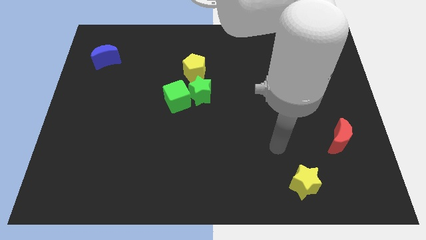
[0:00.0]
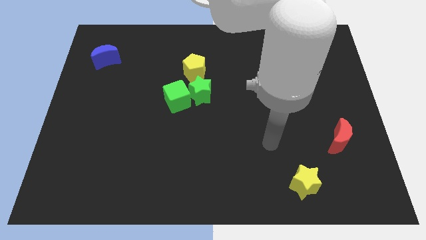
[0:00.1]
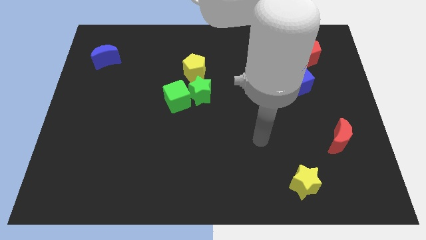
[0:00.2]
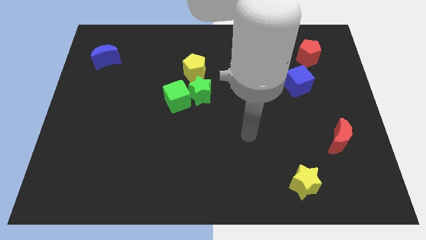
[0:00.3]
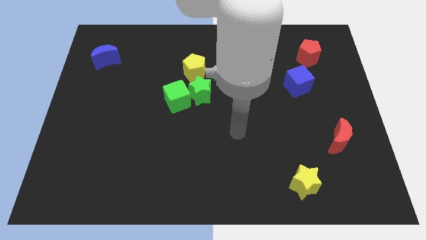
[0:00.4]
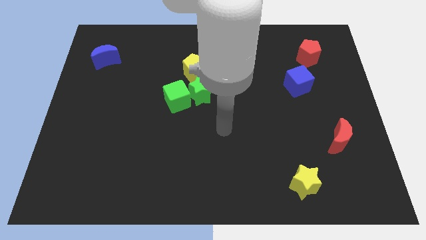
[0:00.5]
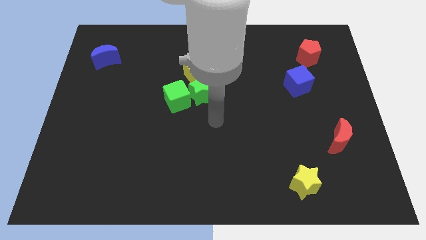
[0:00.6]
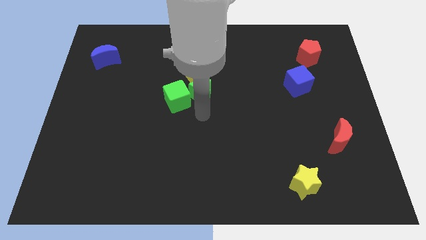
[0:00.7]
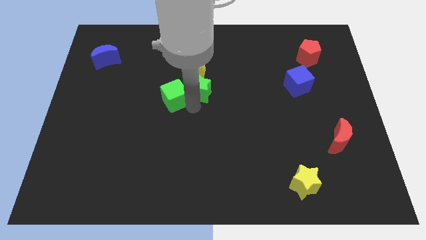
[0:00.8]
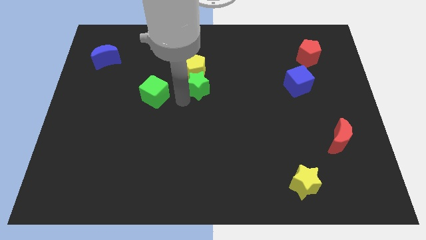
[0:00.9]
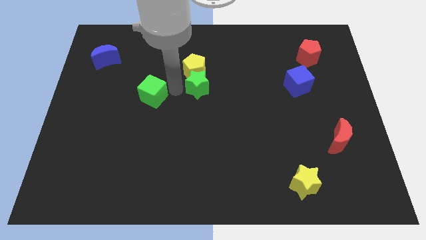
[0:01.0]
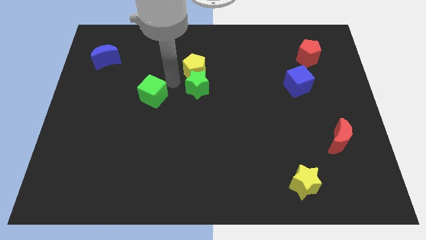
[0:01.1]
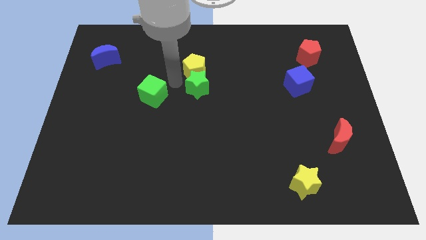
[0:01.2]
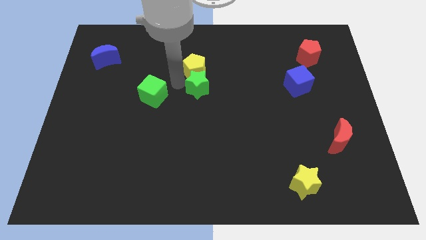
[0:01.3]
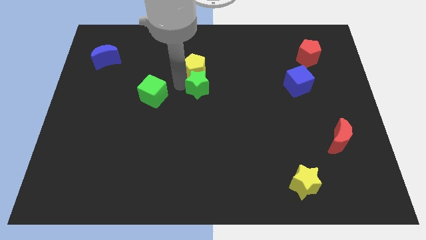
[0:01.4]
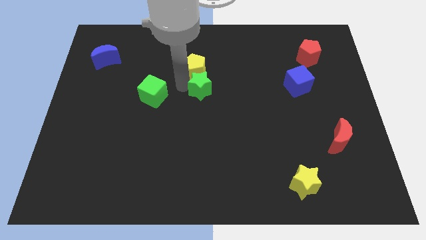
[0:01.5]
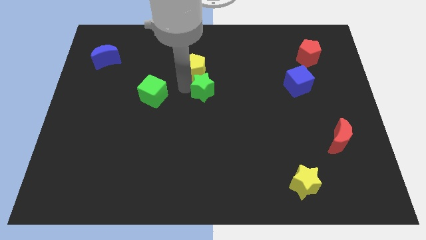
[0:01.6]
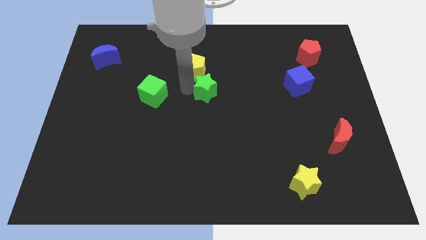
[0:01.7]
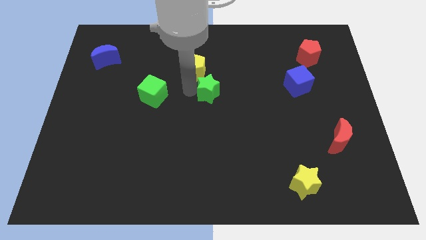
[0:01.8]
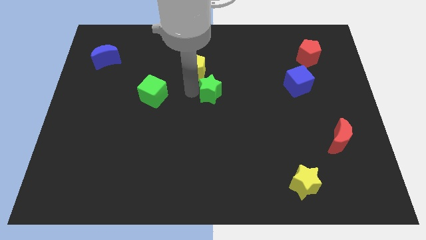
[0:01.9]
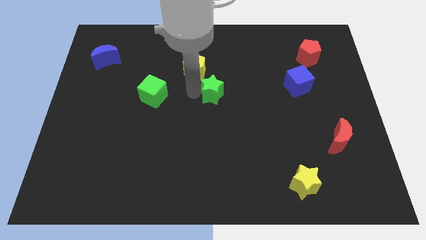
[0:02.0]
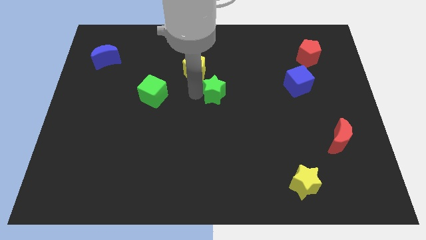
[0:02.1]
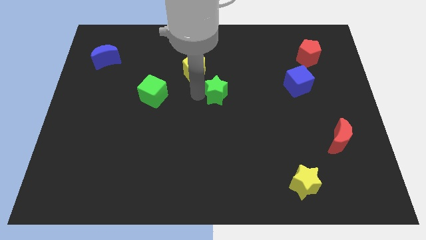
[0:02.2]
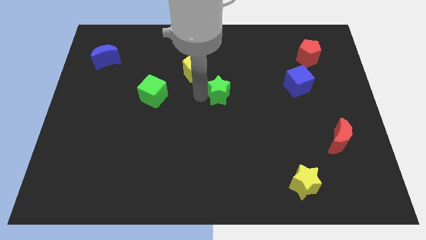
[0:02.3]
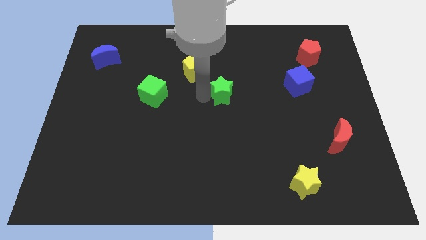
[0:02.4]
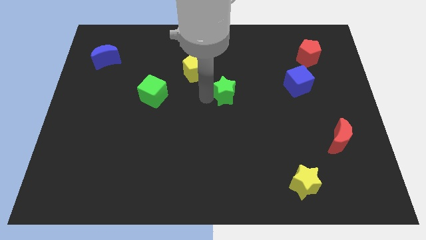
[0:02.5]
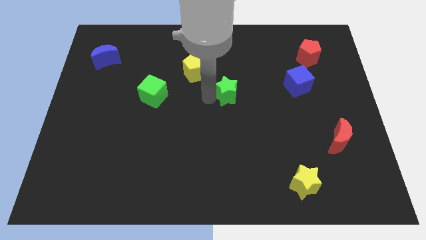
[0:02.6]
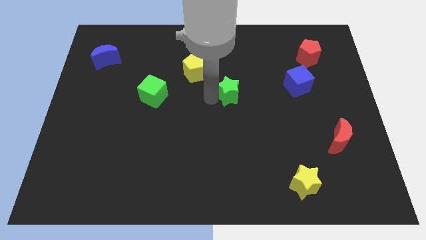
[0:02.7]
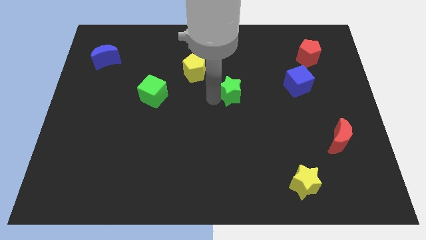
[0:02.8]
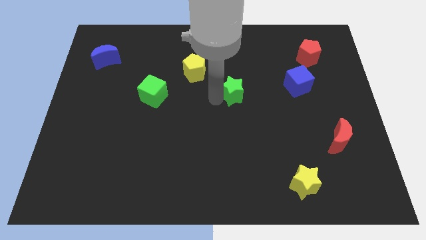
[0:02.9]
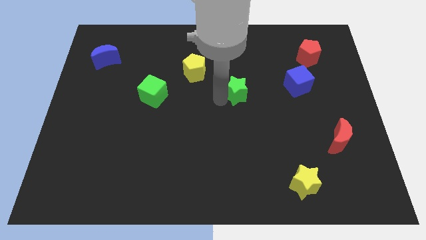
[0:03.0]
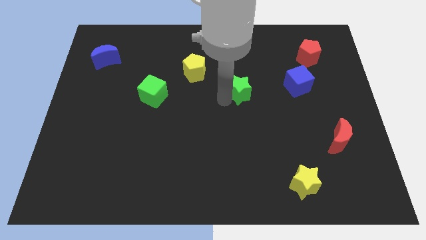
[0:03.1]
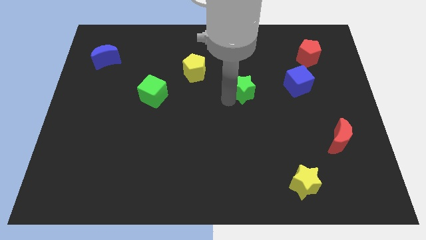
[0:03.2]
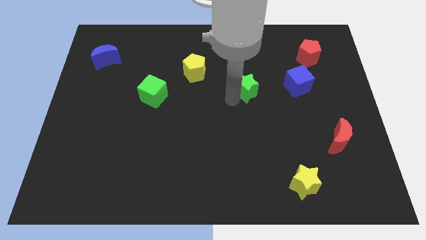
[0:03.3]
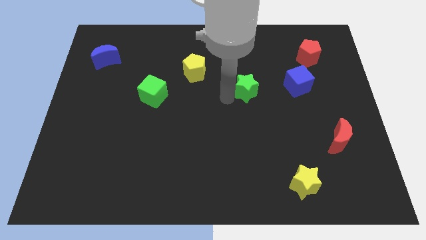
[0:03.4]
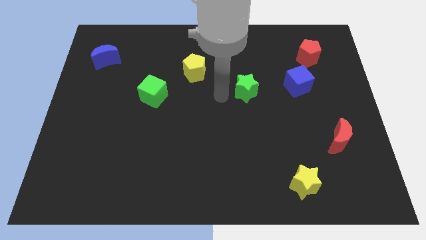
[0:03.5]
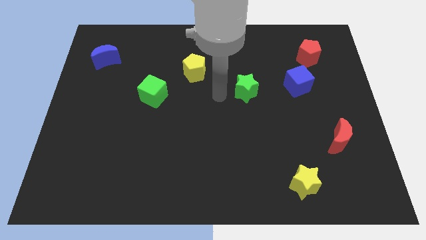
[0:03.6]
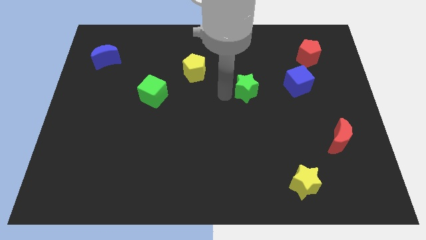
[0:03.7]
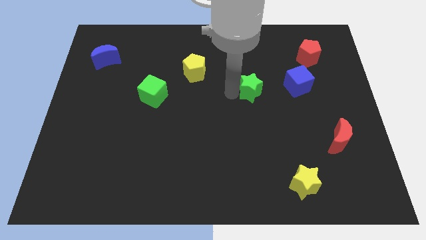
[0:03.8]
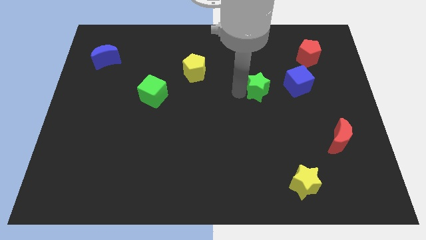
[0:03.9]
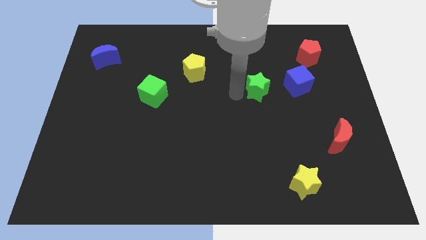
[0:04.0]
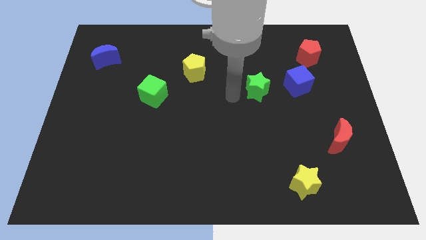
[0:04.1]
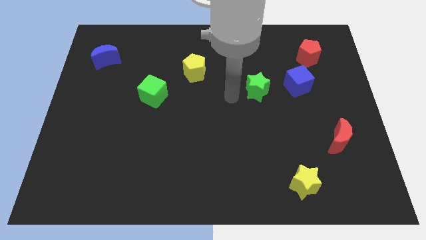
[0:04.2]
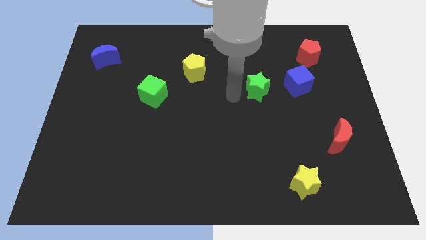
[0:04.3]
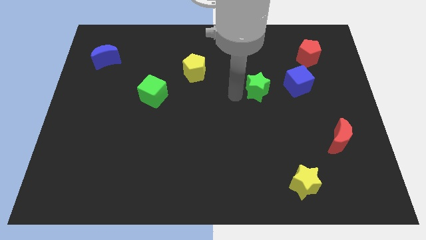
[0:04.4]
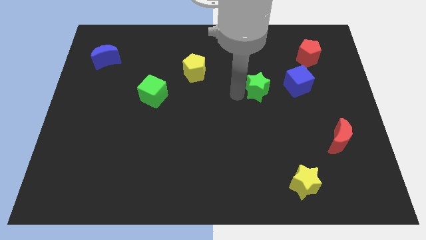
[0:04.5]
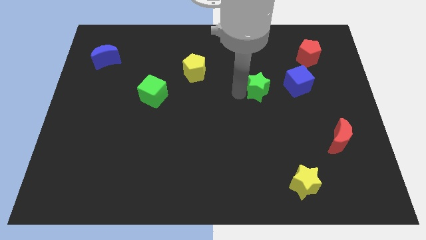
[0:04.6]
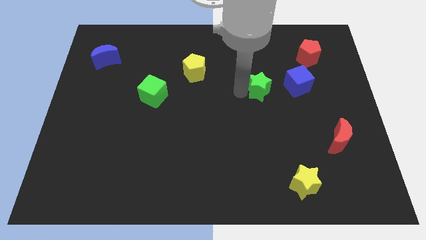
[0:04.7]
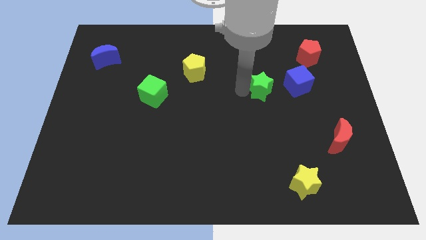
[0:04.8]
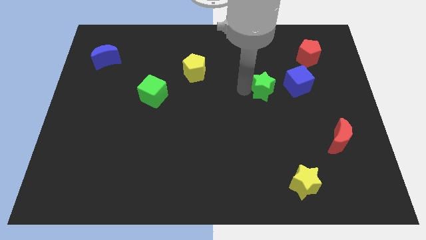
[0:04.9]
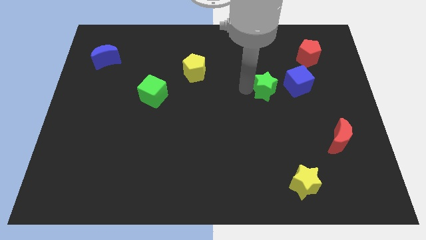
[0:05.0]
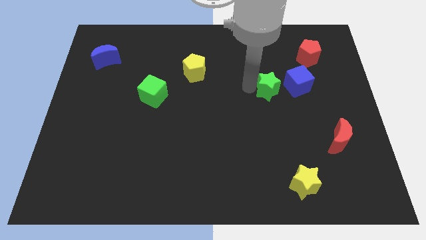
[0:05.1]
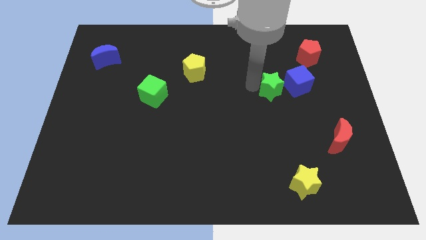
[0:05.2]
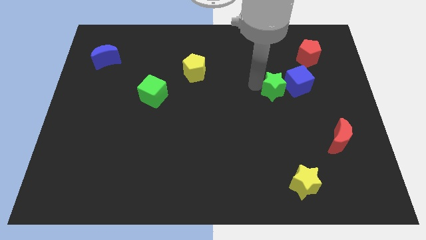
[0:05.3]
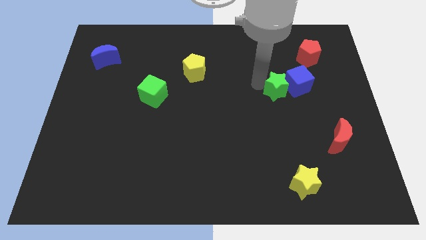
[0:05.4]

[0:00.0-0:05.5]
slide the green star close to the blue cube

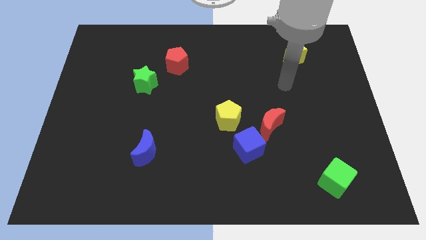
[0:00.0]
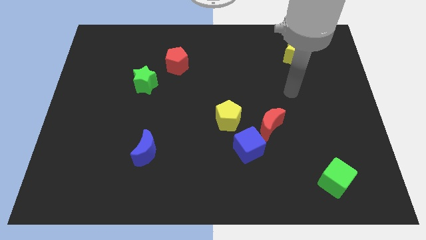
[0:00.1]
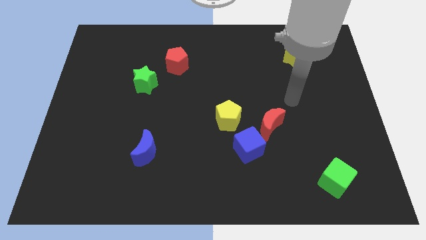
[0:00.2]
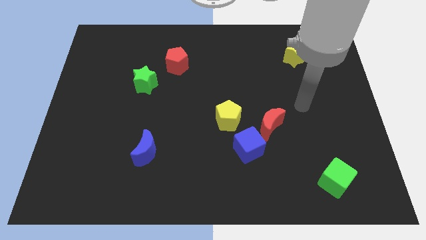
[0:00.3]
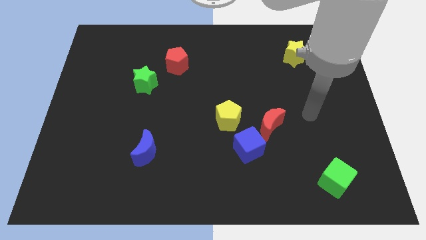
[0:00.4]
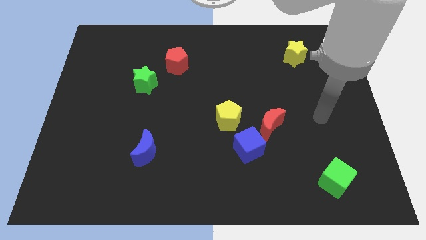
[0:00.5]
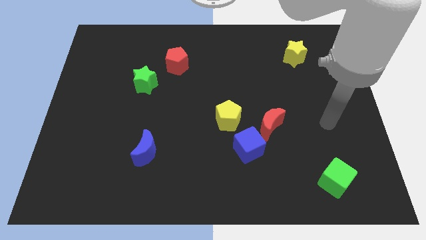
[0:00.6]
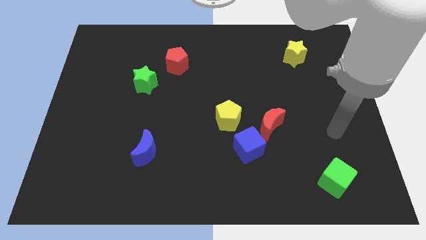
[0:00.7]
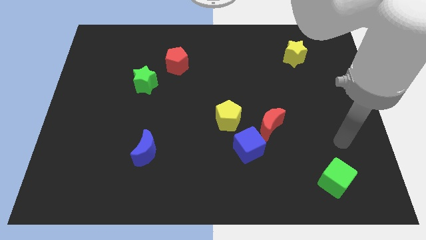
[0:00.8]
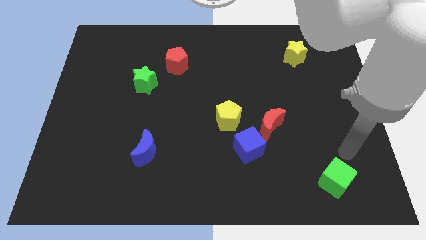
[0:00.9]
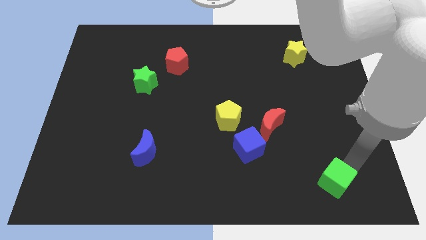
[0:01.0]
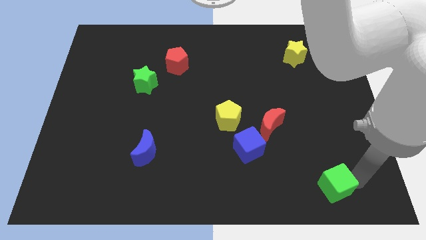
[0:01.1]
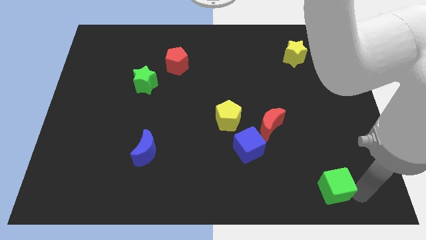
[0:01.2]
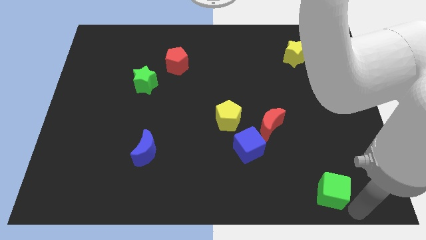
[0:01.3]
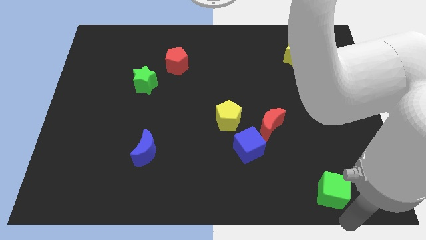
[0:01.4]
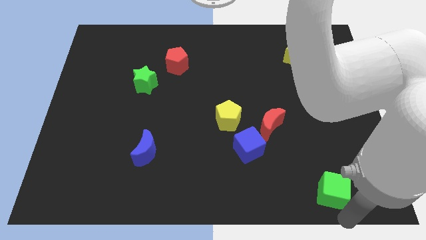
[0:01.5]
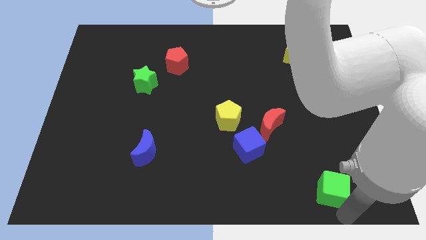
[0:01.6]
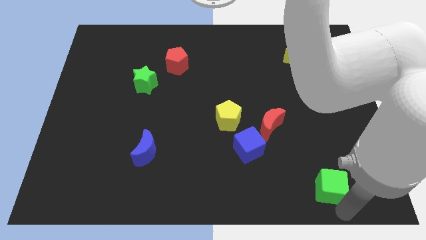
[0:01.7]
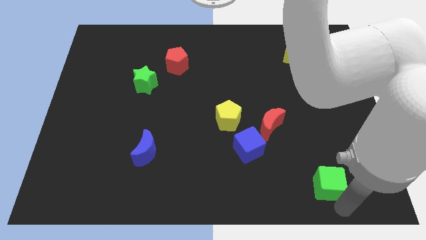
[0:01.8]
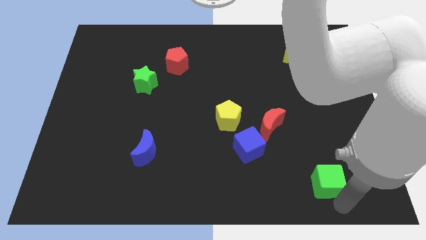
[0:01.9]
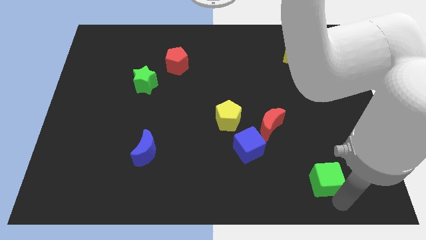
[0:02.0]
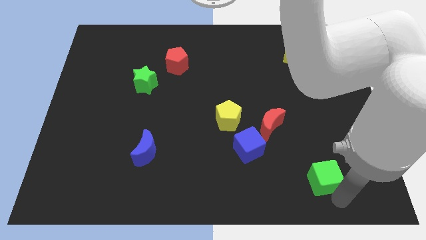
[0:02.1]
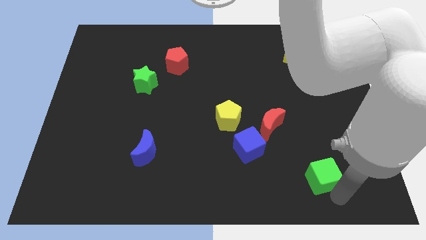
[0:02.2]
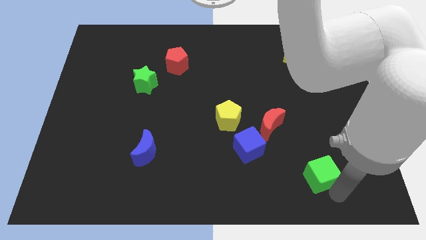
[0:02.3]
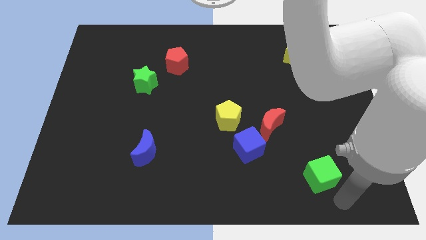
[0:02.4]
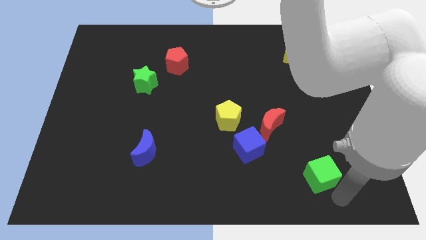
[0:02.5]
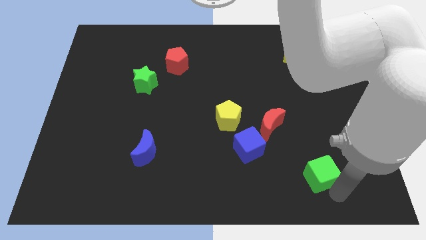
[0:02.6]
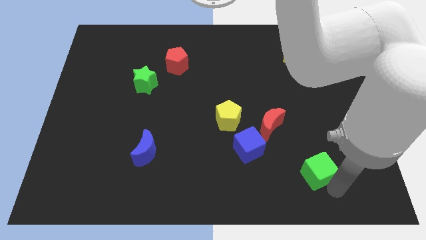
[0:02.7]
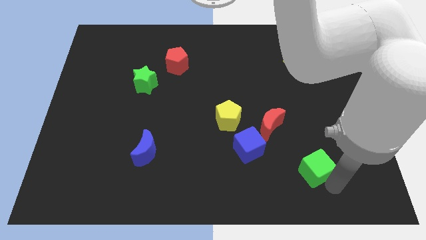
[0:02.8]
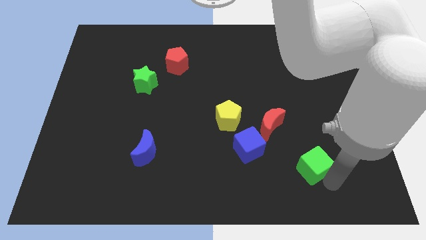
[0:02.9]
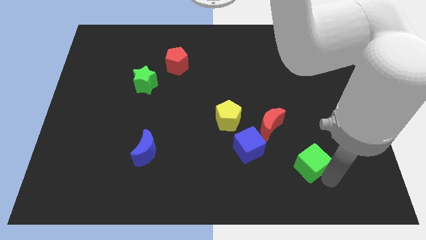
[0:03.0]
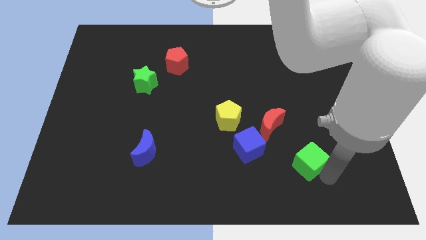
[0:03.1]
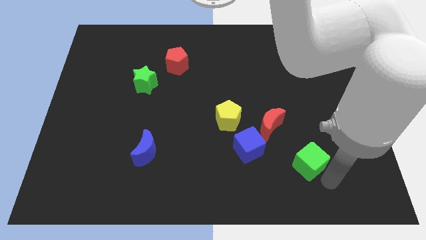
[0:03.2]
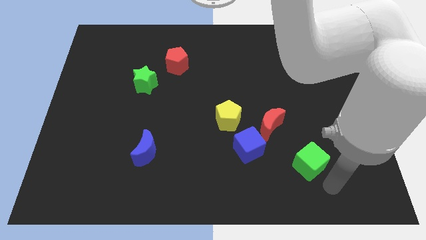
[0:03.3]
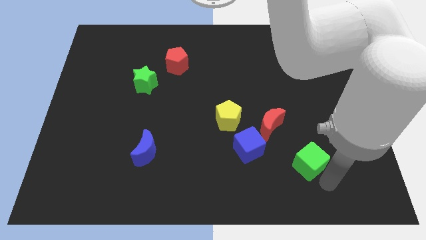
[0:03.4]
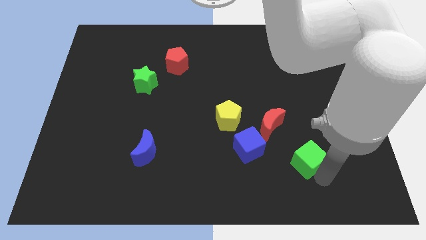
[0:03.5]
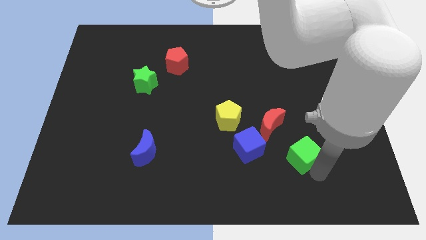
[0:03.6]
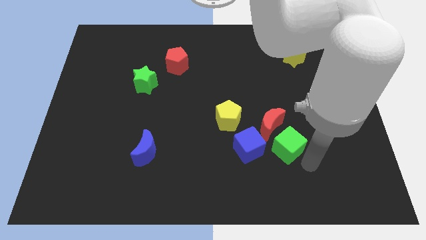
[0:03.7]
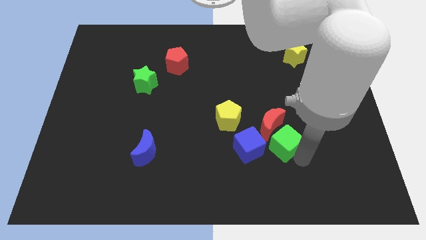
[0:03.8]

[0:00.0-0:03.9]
put the green cube to the red moon
